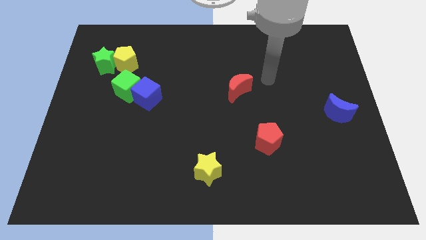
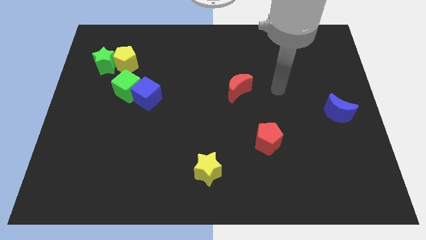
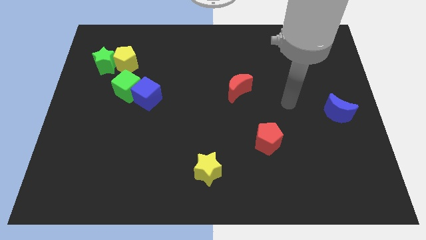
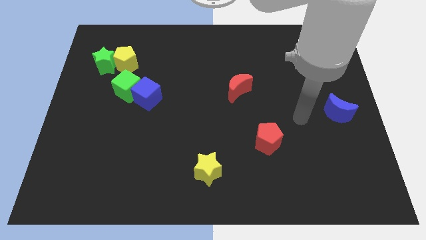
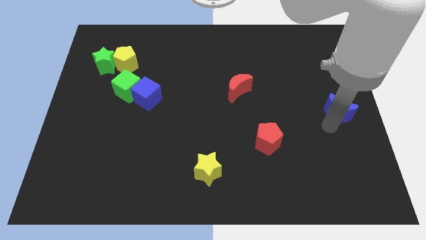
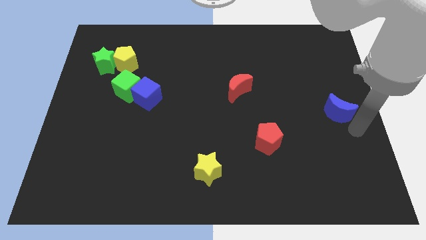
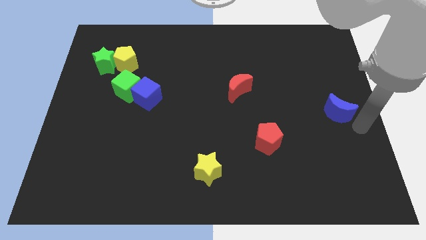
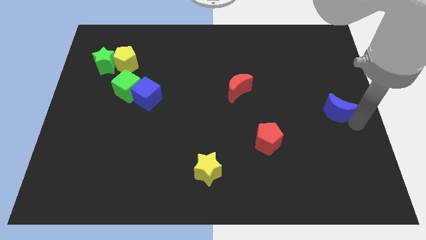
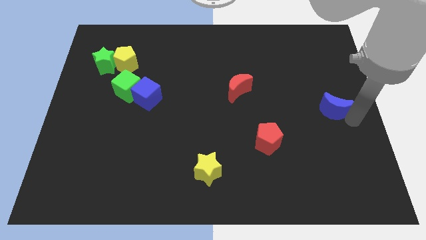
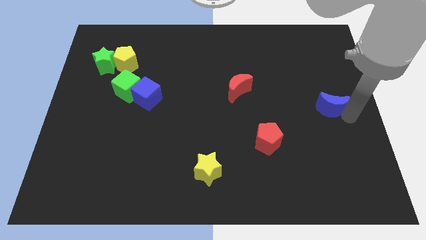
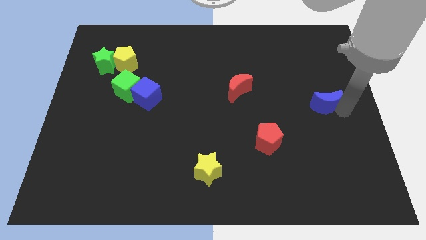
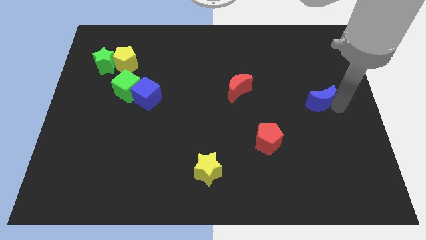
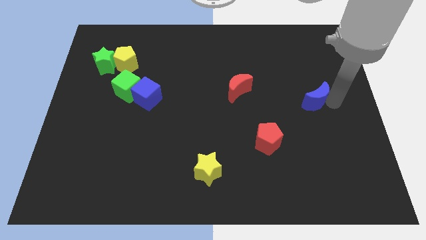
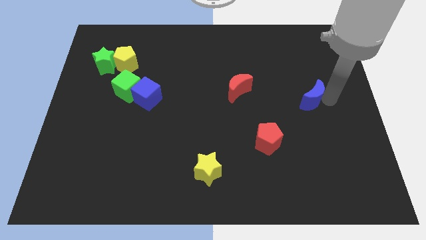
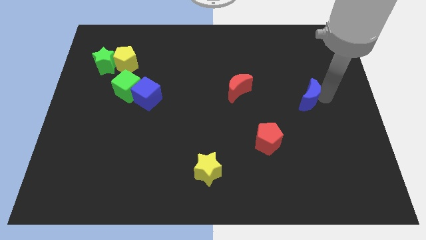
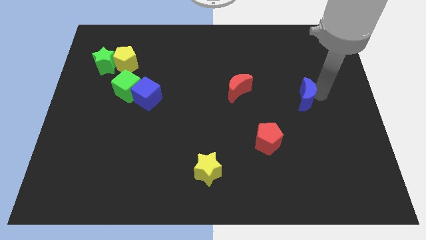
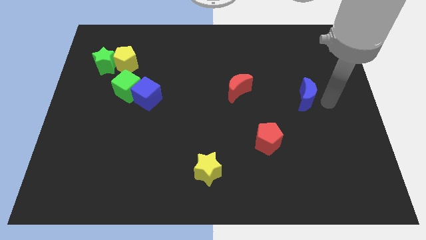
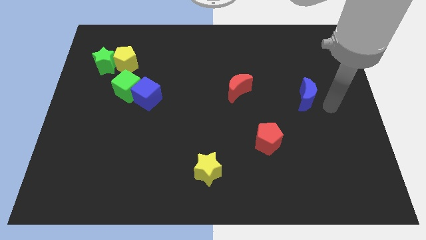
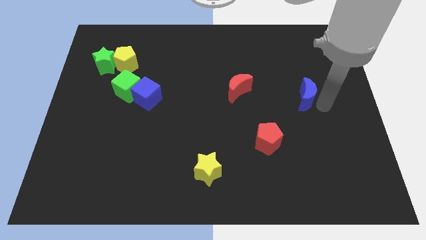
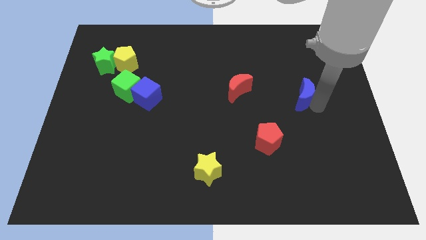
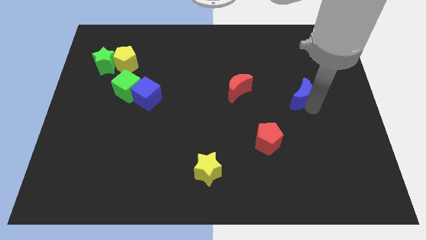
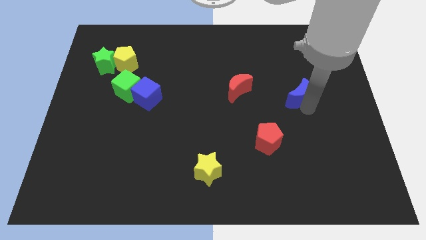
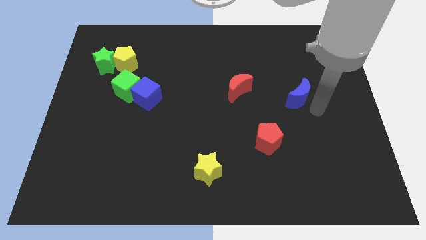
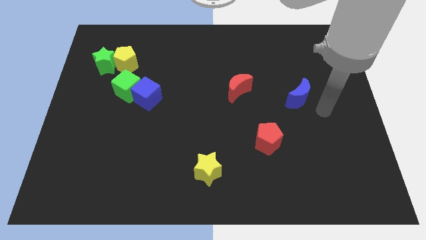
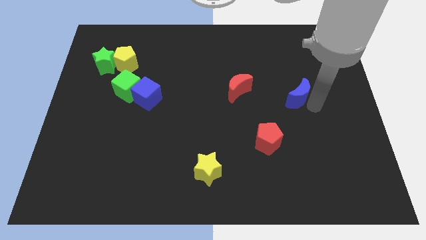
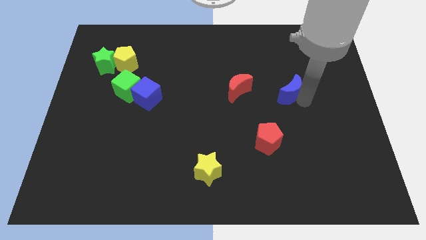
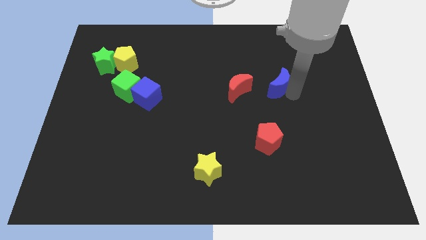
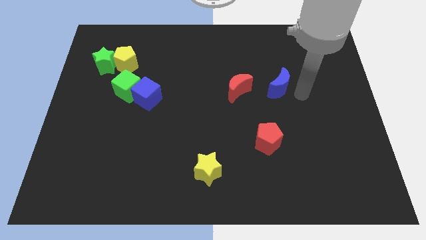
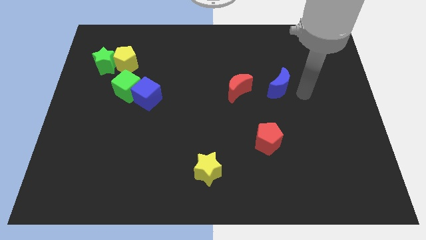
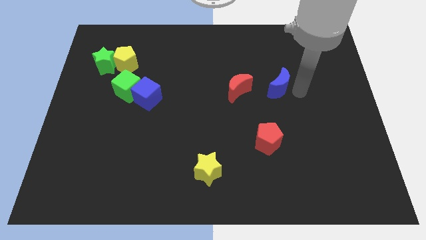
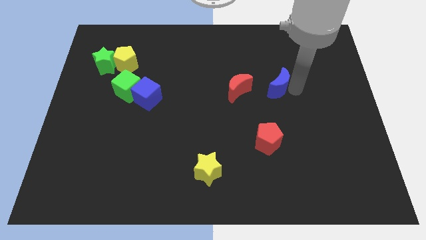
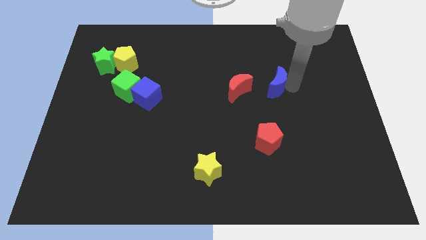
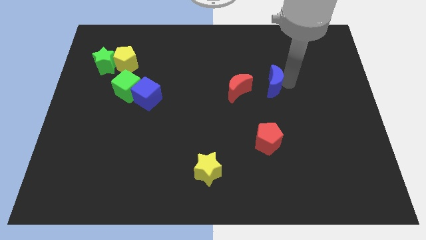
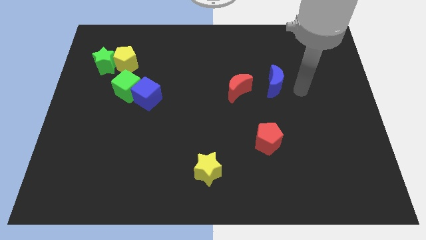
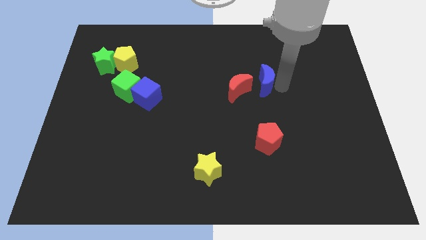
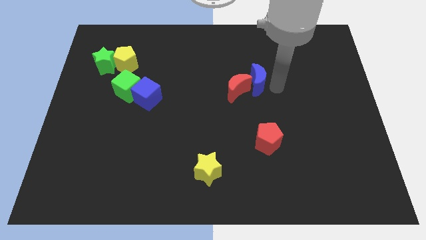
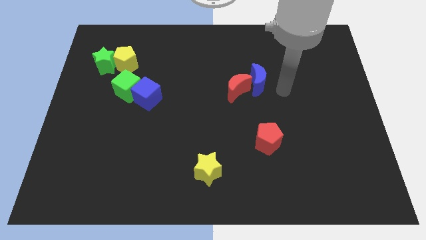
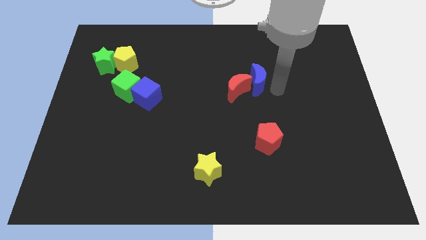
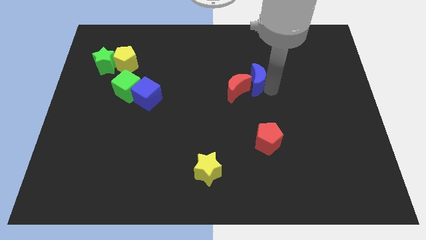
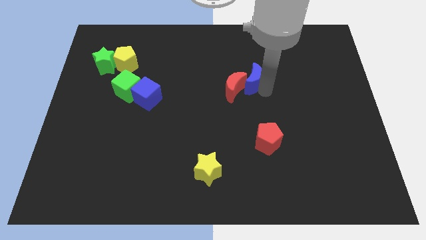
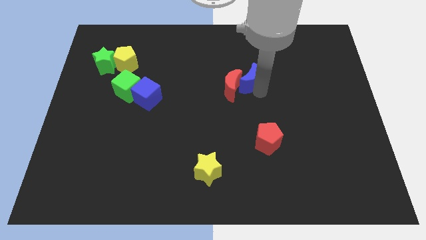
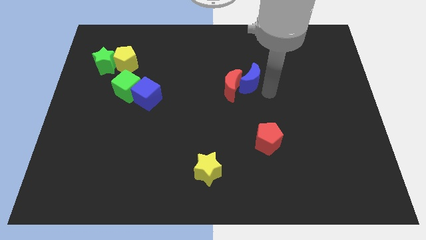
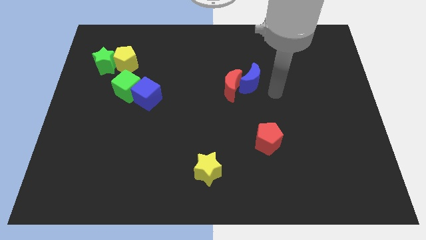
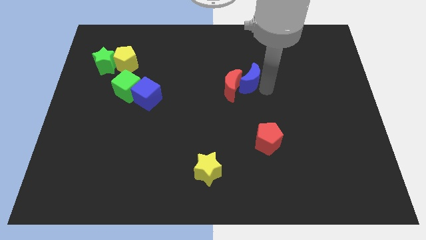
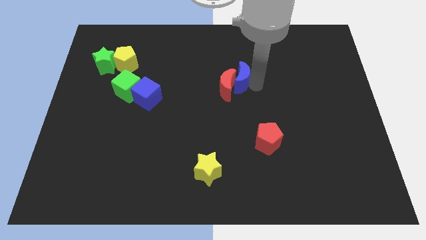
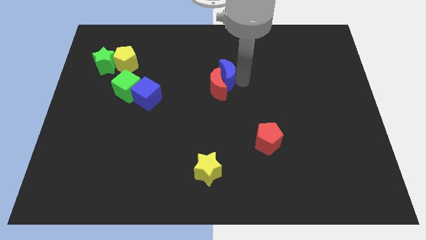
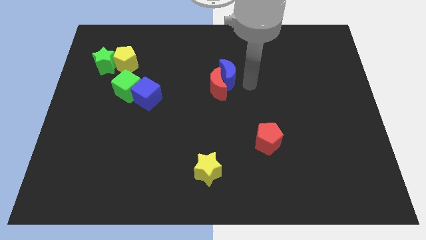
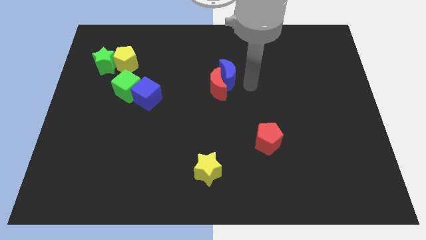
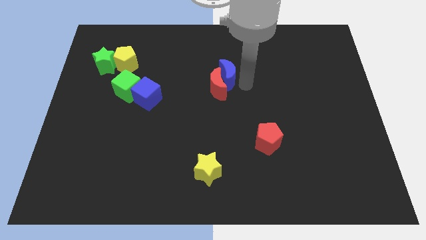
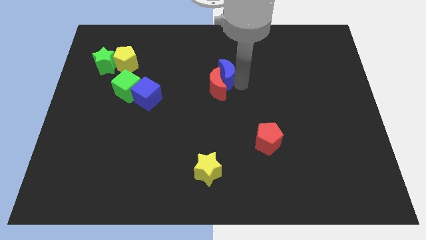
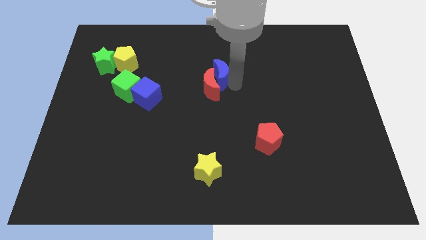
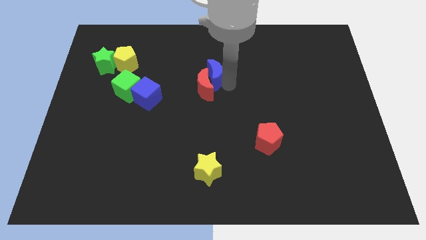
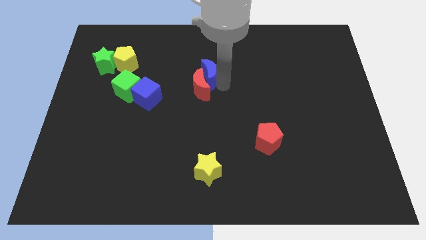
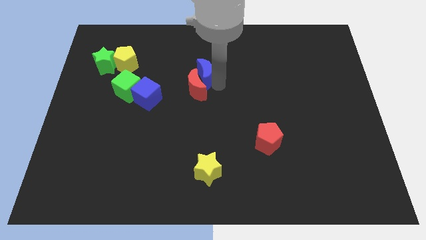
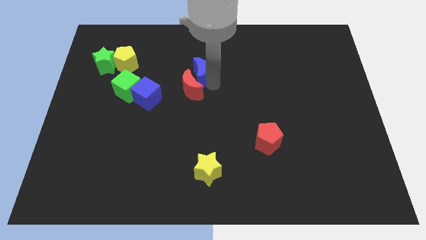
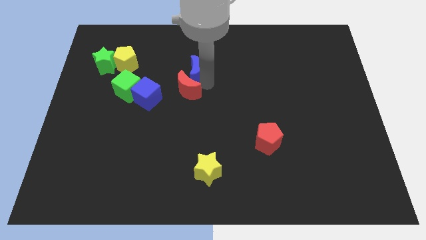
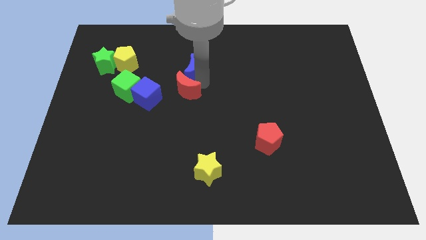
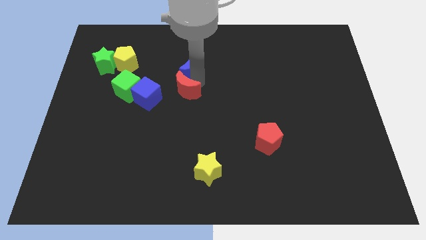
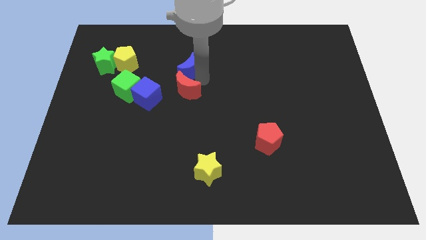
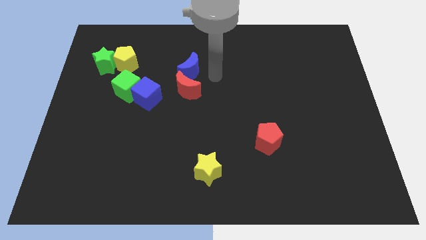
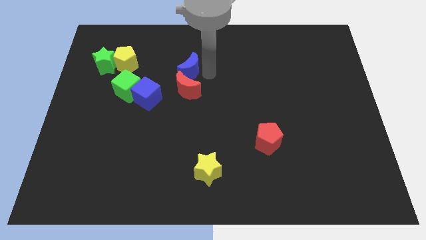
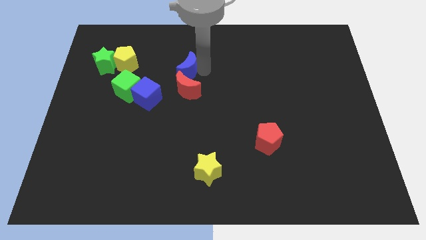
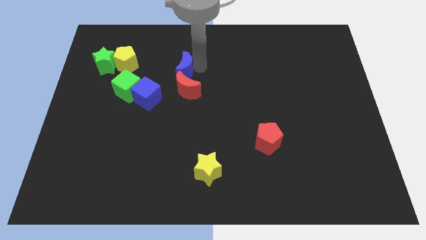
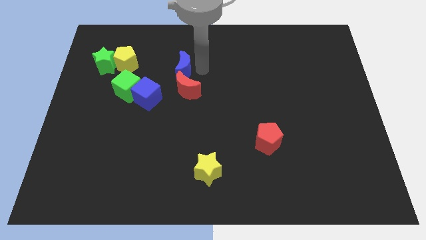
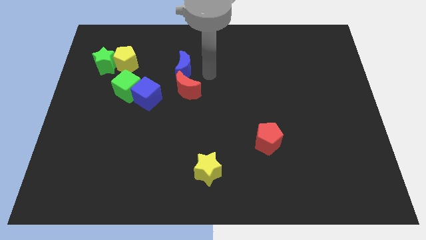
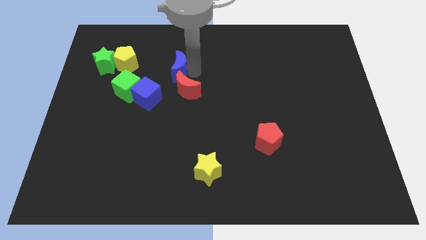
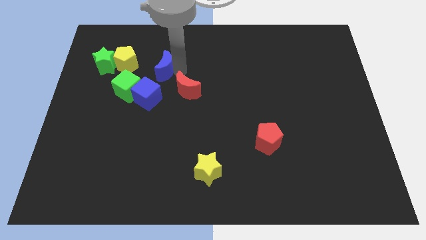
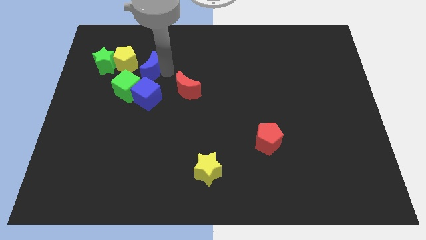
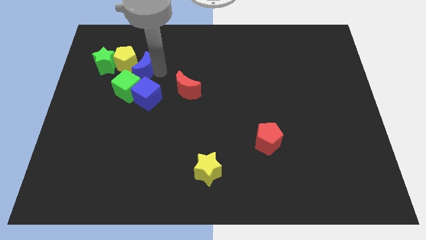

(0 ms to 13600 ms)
put the blue moon towards the yellow pentagon
